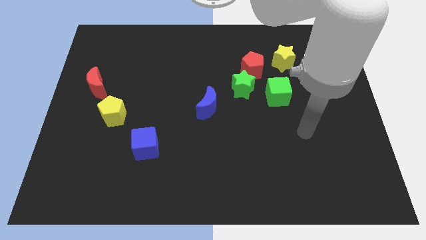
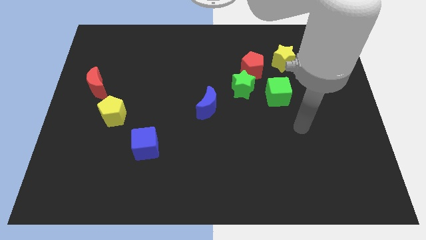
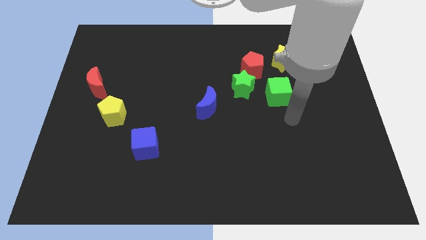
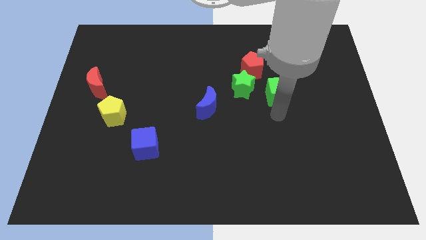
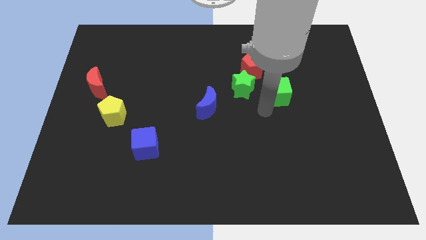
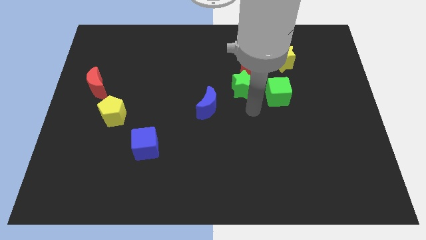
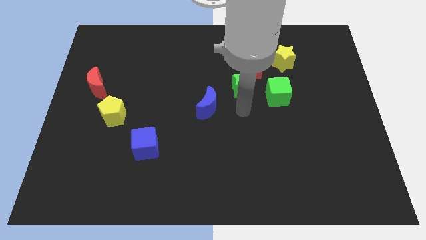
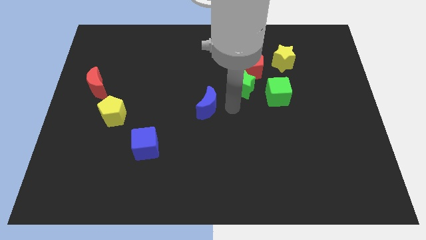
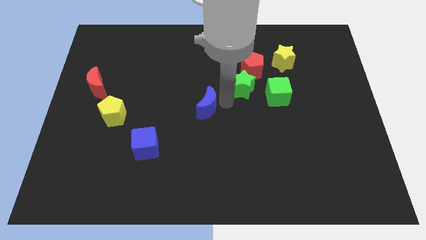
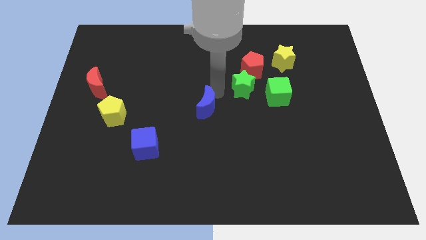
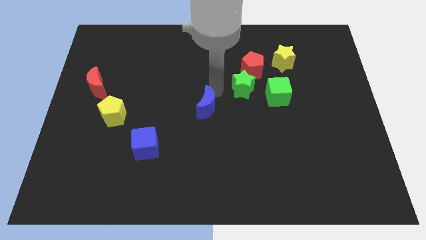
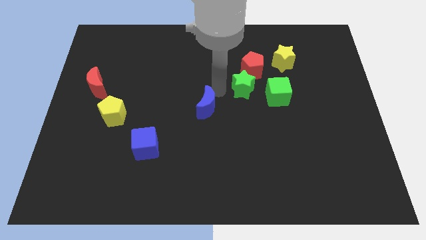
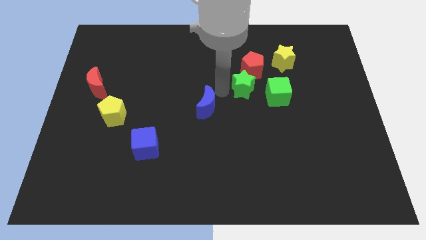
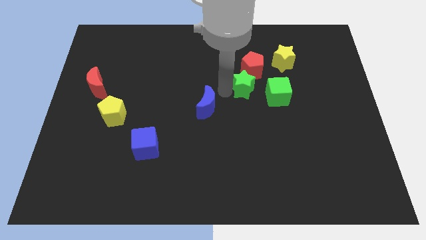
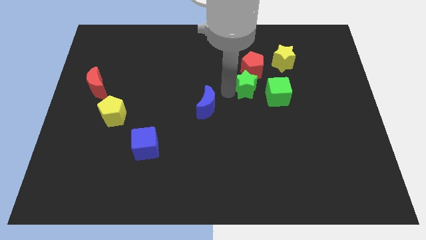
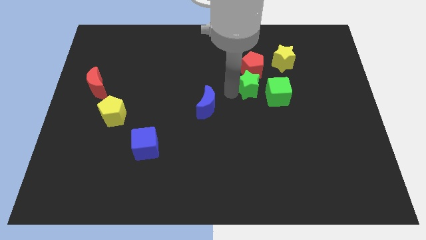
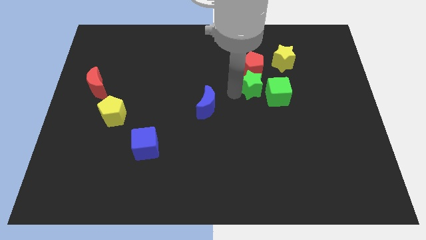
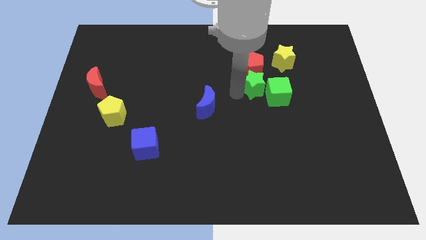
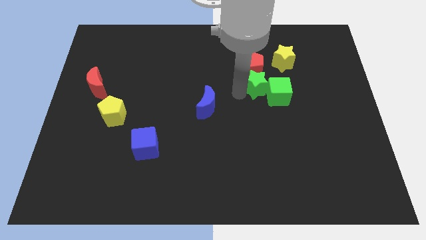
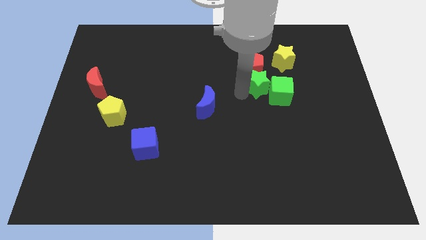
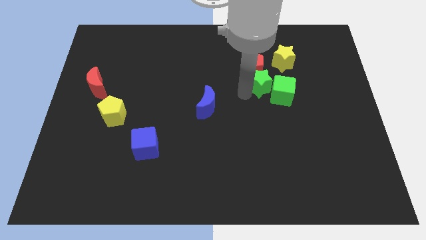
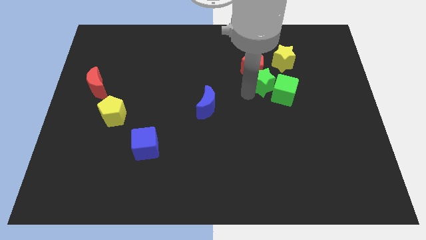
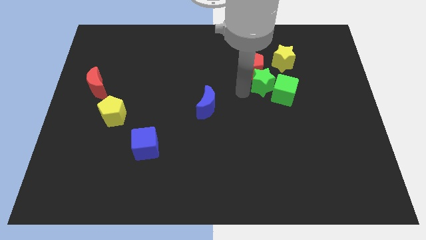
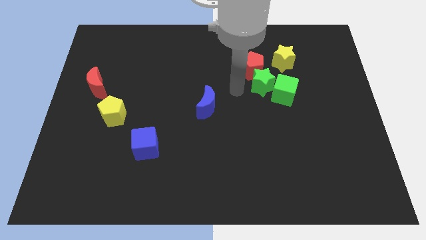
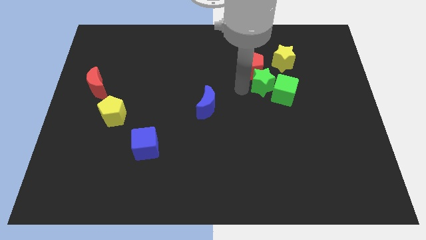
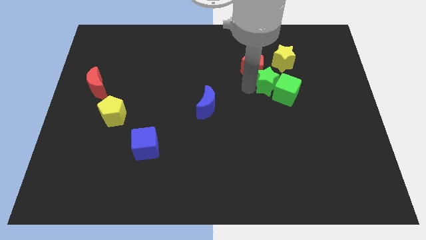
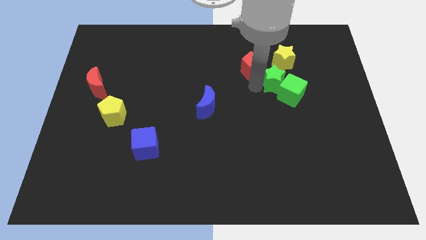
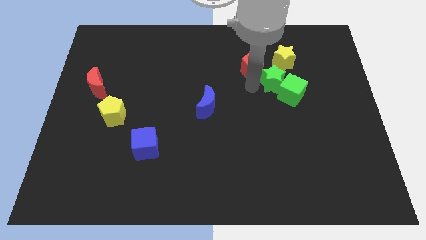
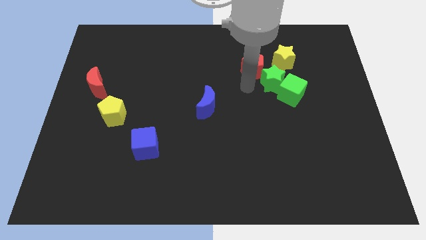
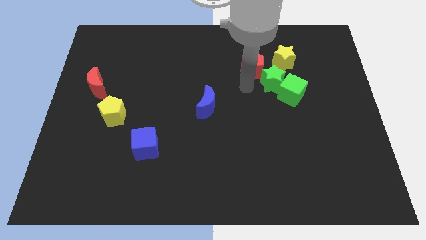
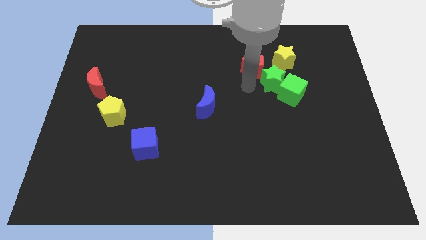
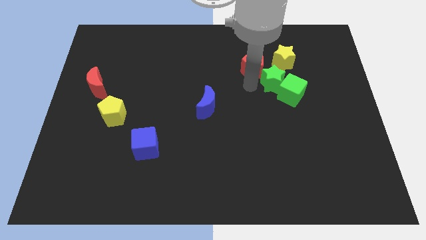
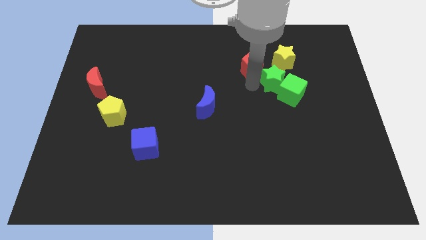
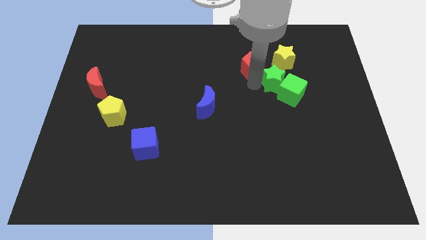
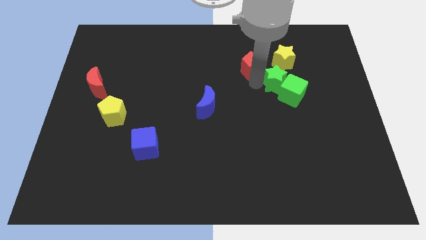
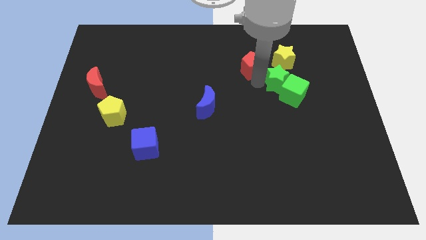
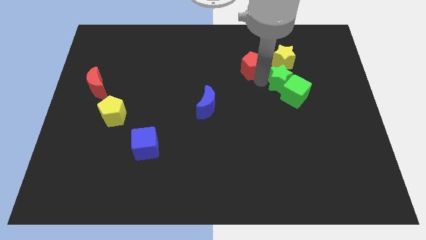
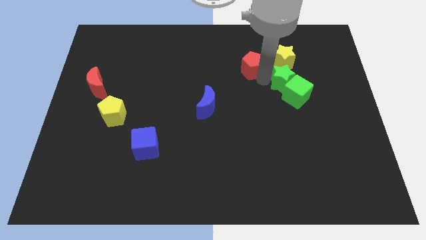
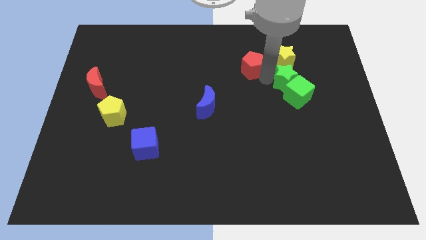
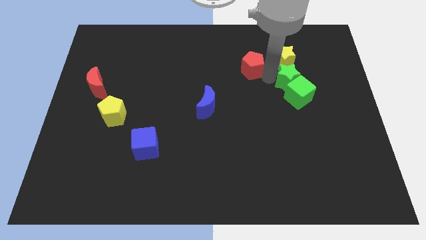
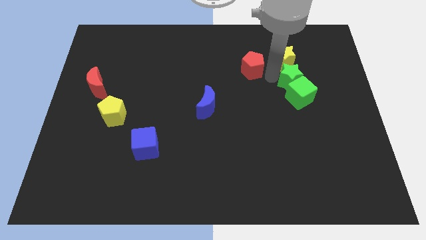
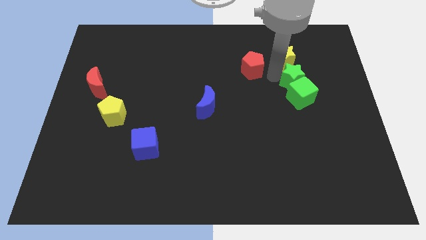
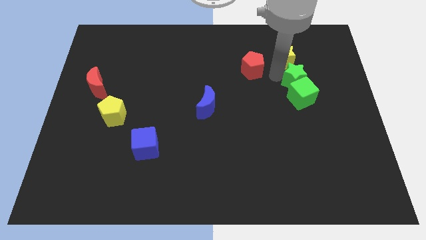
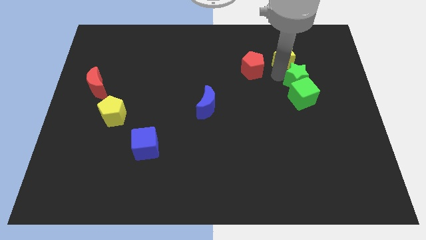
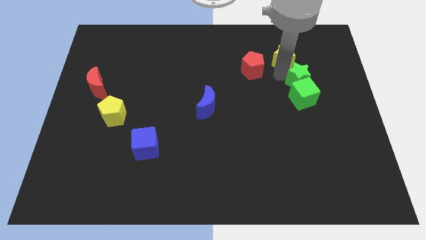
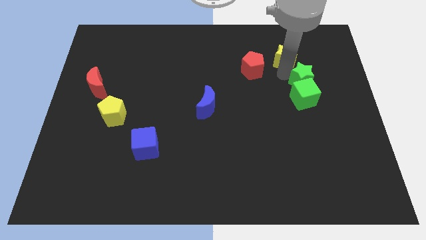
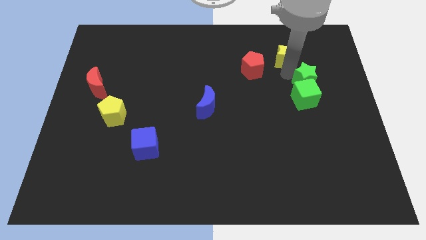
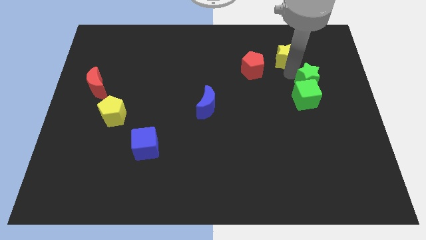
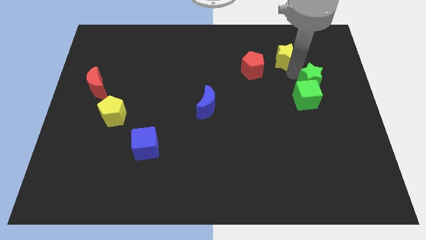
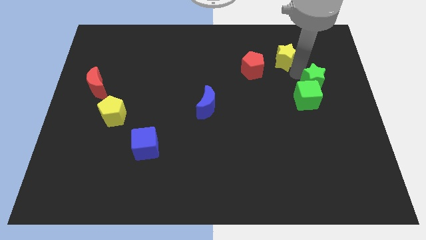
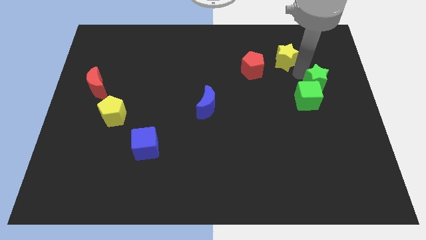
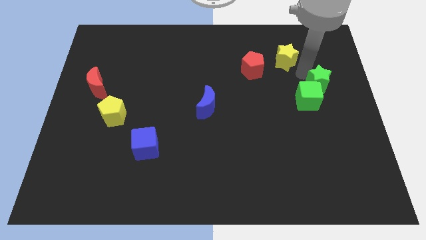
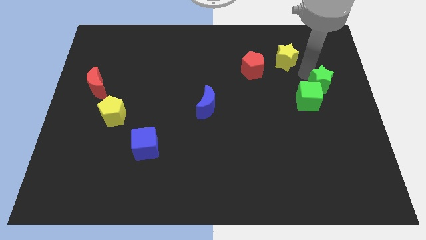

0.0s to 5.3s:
put the green star to the center right
